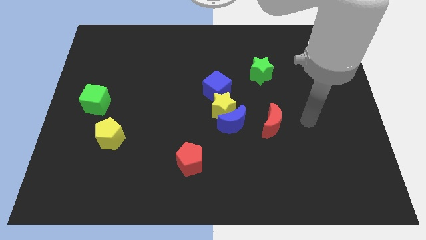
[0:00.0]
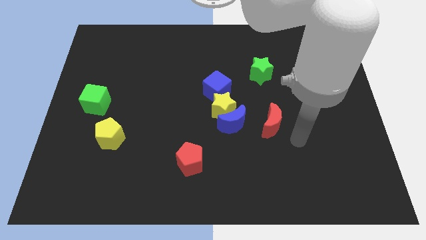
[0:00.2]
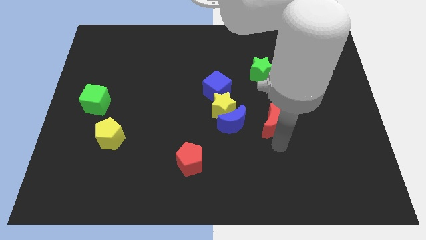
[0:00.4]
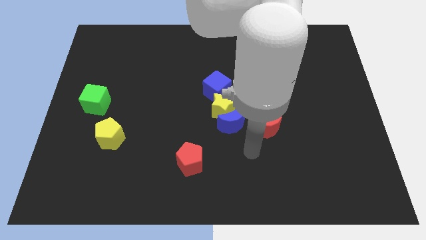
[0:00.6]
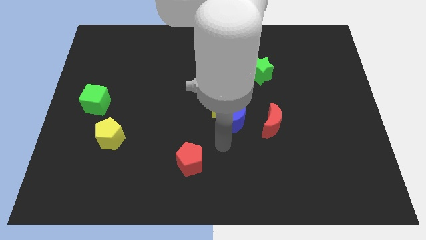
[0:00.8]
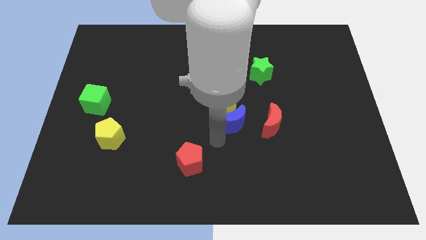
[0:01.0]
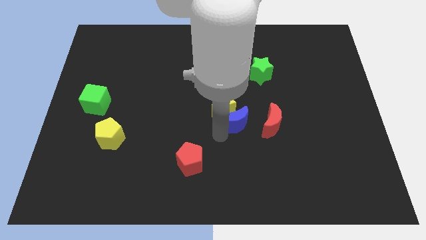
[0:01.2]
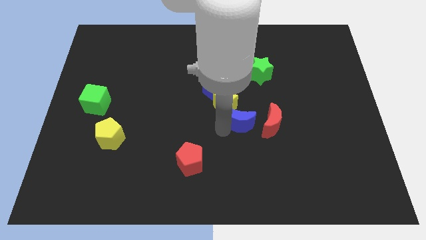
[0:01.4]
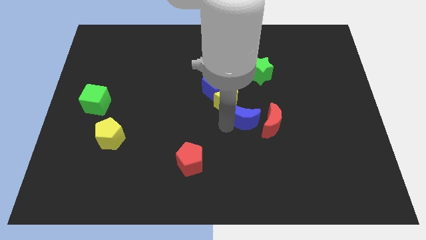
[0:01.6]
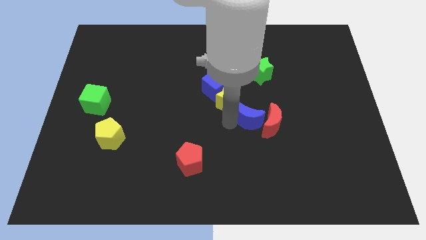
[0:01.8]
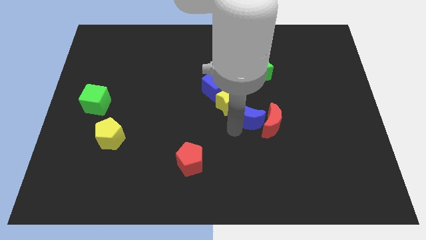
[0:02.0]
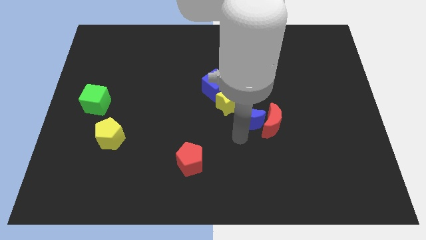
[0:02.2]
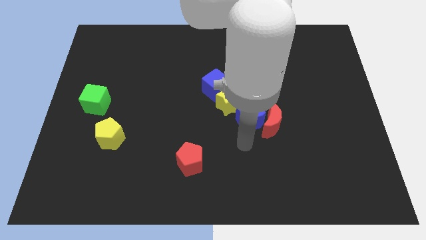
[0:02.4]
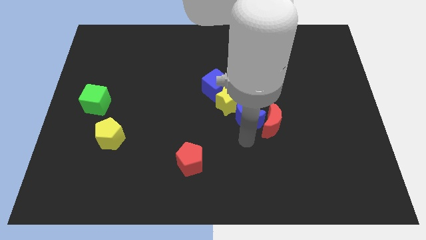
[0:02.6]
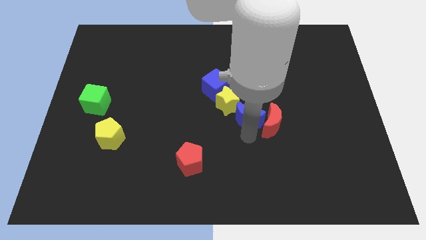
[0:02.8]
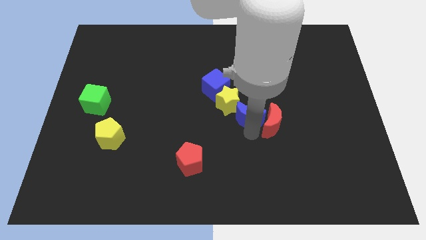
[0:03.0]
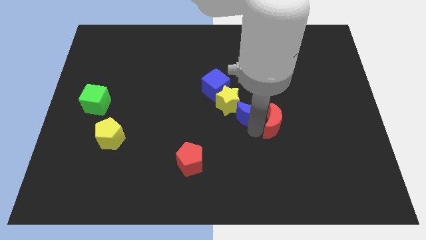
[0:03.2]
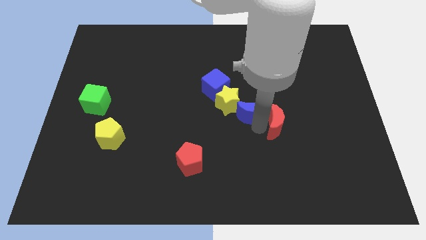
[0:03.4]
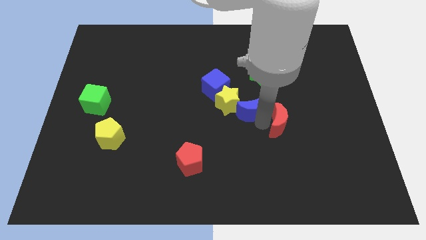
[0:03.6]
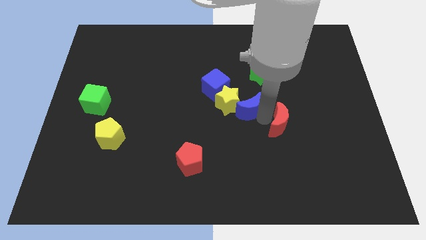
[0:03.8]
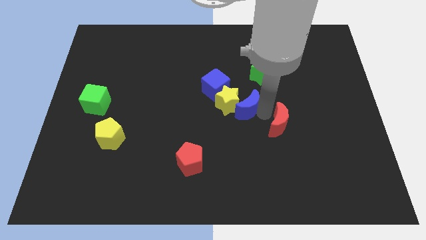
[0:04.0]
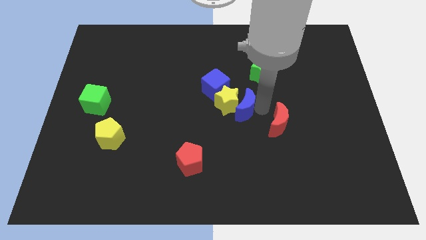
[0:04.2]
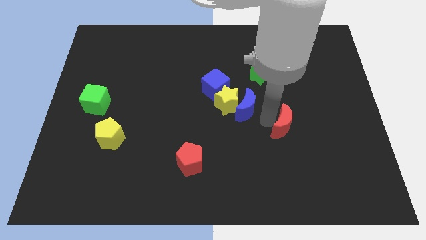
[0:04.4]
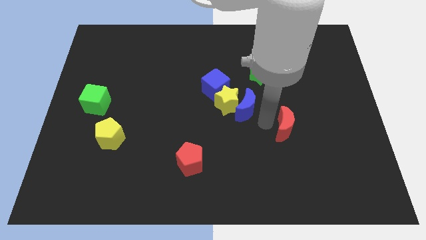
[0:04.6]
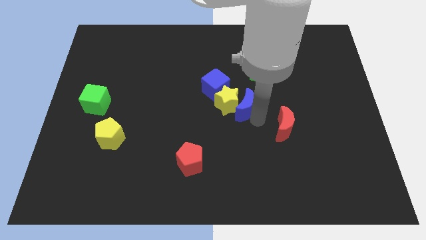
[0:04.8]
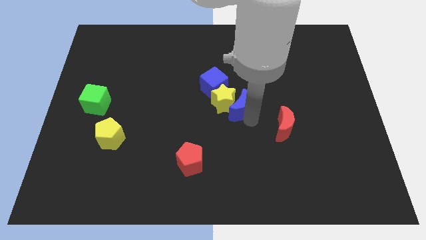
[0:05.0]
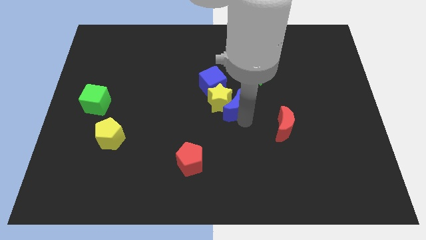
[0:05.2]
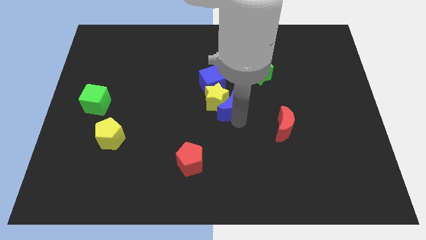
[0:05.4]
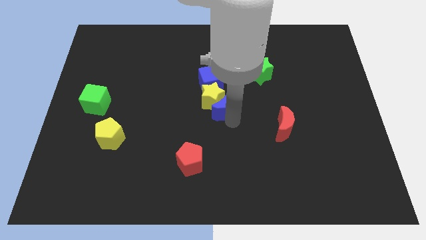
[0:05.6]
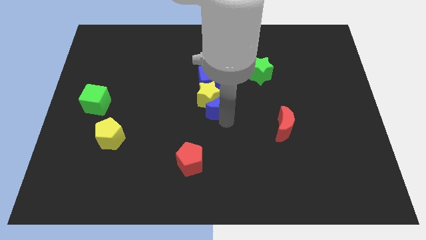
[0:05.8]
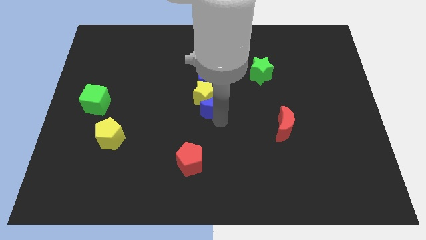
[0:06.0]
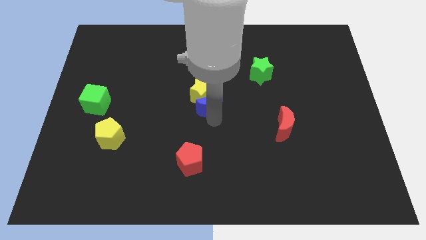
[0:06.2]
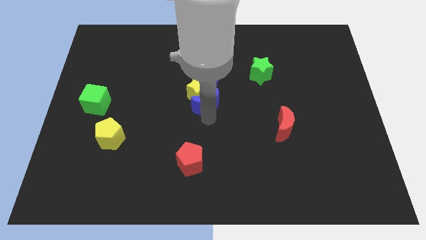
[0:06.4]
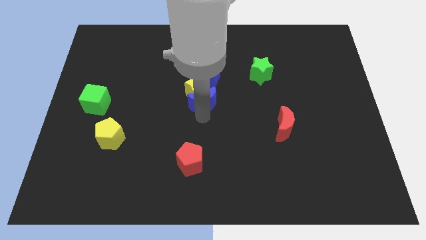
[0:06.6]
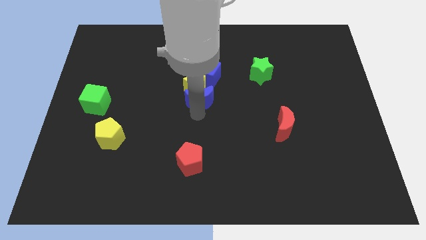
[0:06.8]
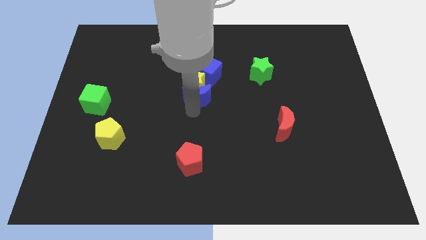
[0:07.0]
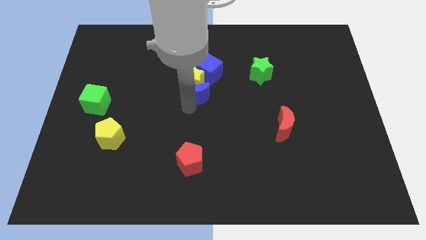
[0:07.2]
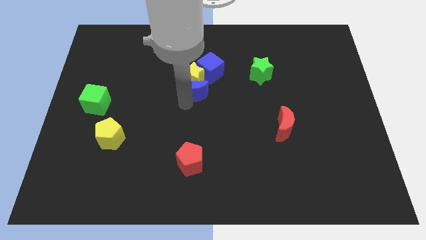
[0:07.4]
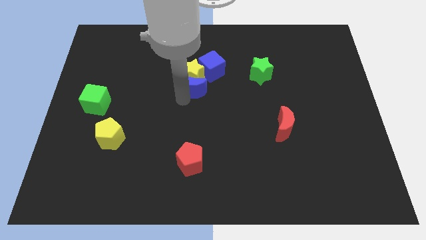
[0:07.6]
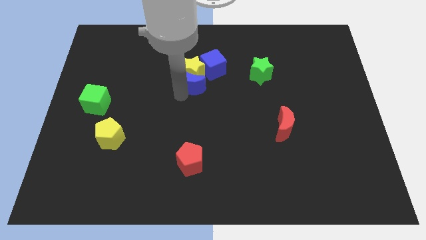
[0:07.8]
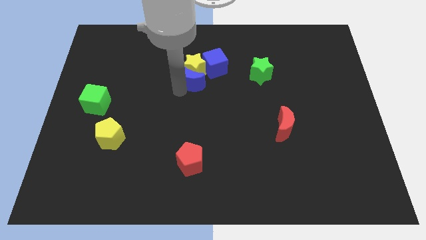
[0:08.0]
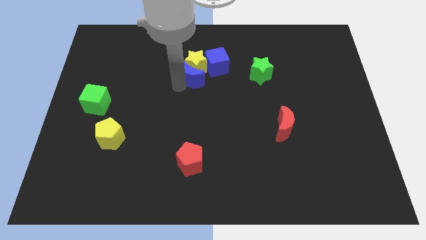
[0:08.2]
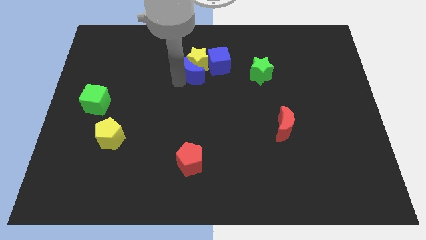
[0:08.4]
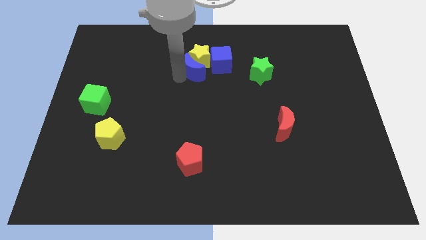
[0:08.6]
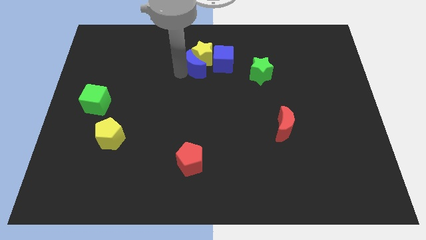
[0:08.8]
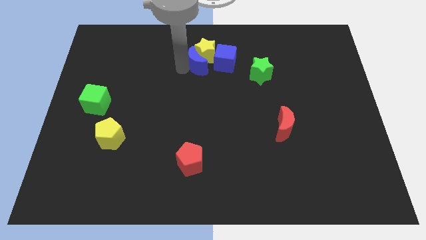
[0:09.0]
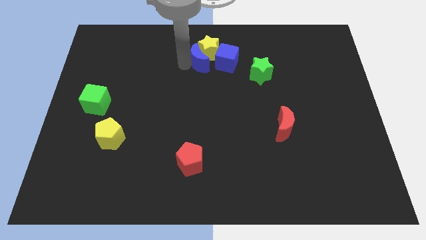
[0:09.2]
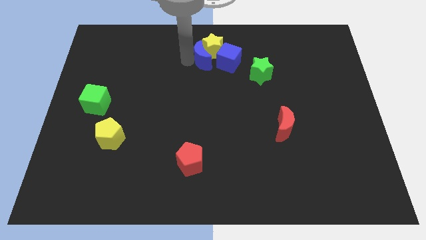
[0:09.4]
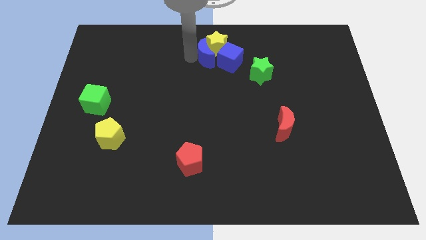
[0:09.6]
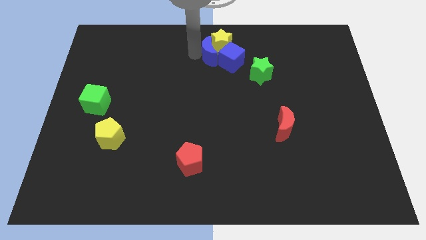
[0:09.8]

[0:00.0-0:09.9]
put the blue moon close to the blue cube

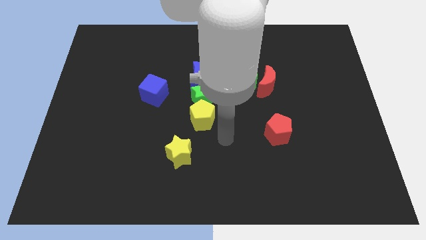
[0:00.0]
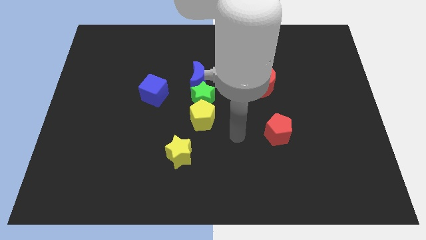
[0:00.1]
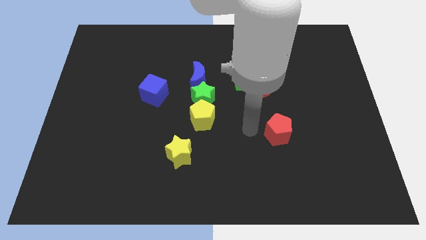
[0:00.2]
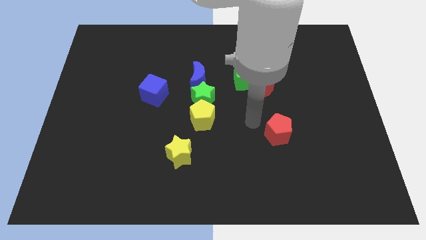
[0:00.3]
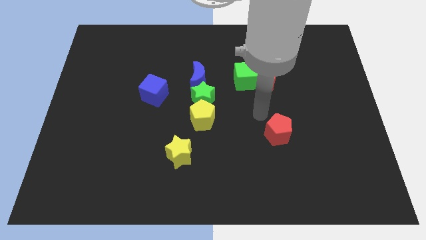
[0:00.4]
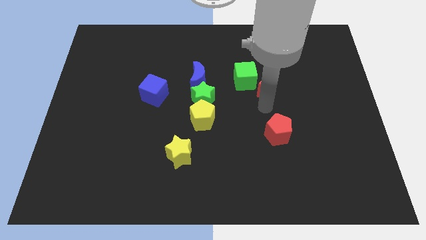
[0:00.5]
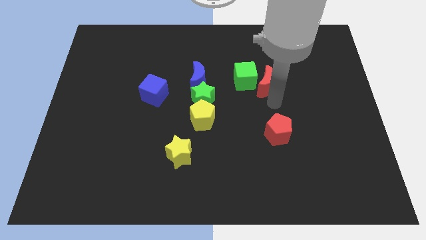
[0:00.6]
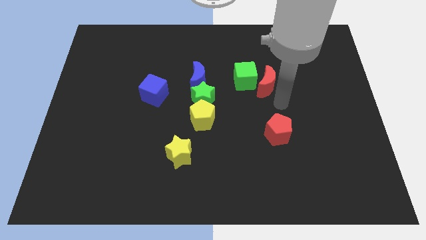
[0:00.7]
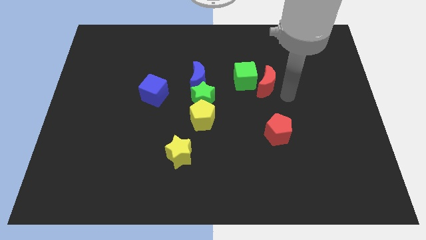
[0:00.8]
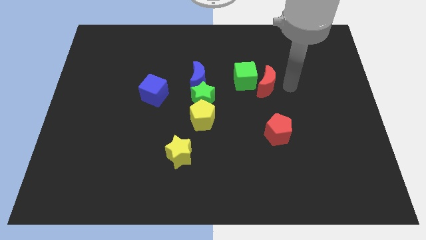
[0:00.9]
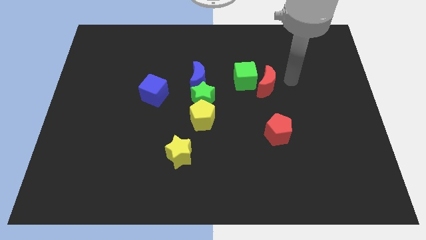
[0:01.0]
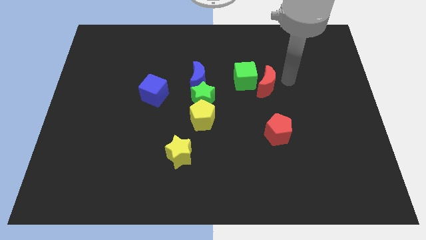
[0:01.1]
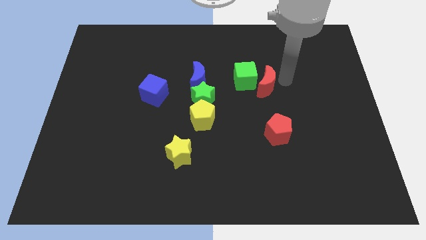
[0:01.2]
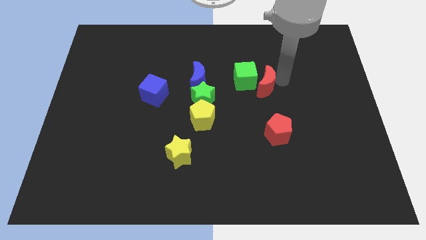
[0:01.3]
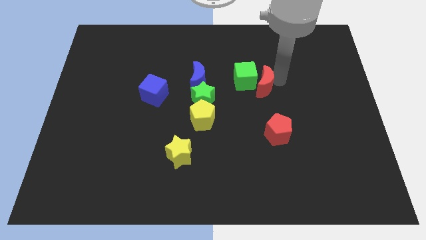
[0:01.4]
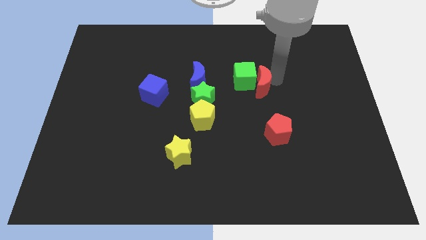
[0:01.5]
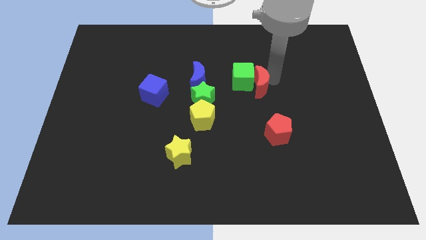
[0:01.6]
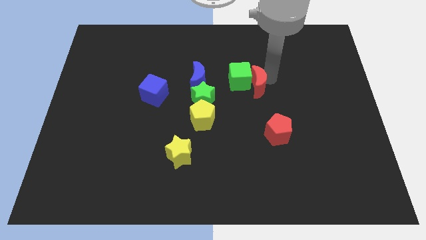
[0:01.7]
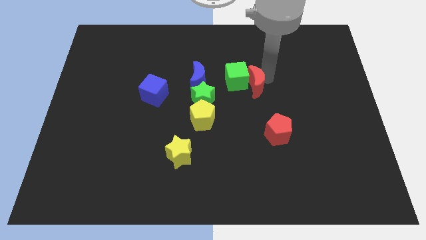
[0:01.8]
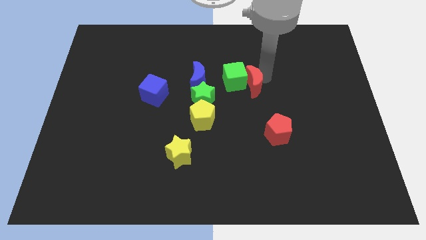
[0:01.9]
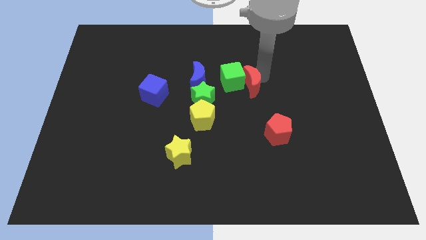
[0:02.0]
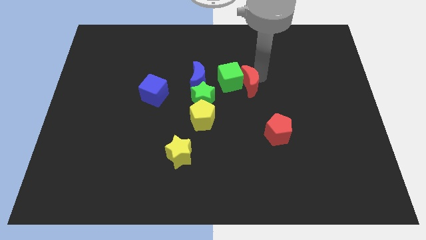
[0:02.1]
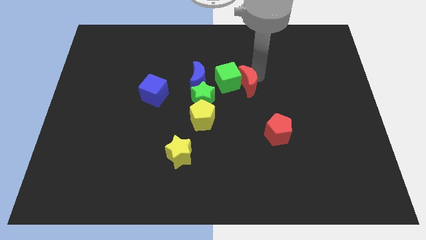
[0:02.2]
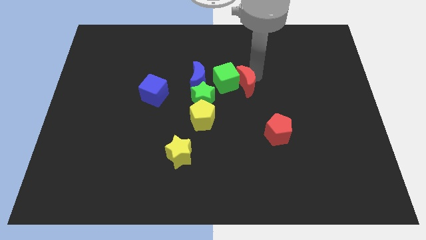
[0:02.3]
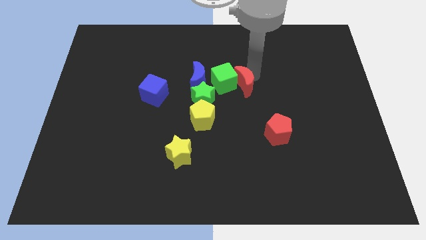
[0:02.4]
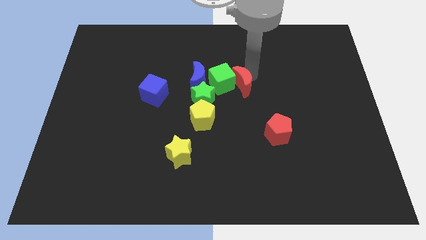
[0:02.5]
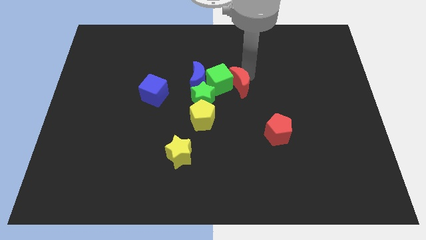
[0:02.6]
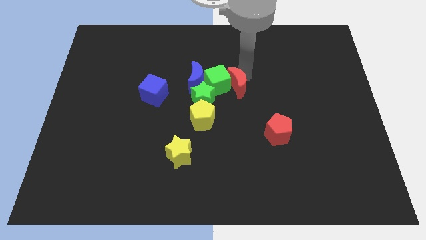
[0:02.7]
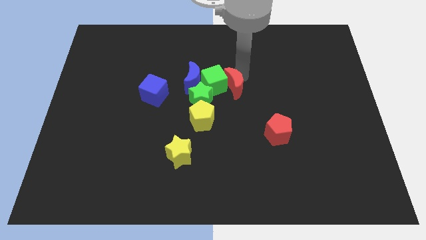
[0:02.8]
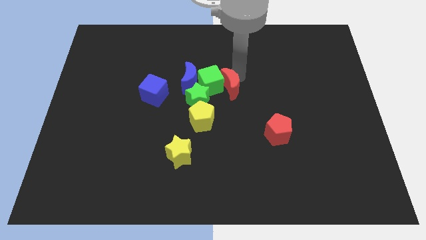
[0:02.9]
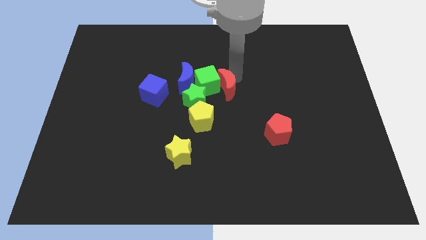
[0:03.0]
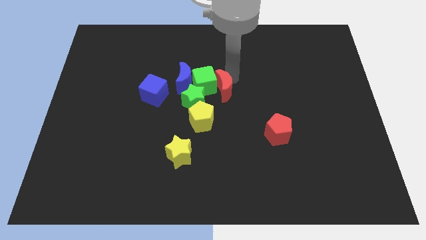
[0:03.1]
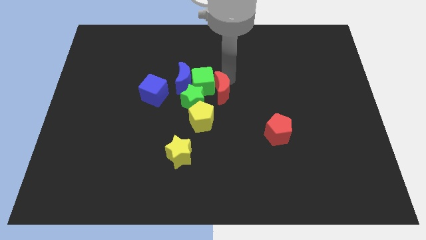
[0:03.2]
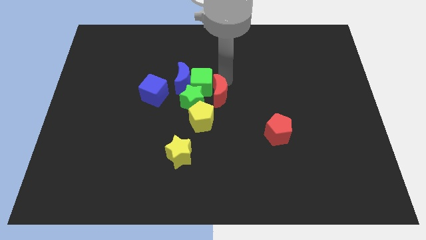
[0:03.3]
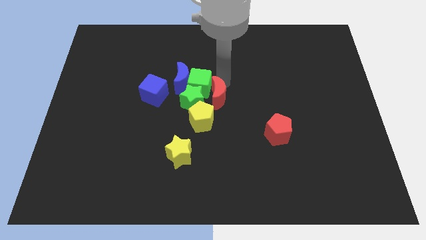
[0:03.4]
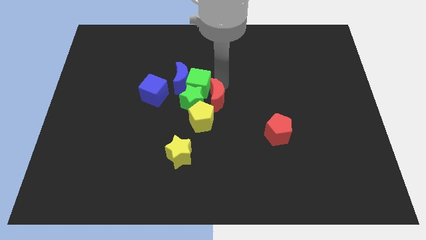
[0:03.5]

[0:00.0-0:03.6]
move the red moon to the green star
